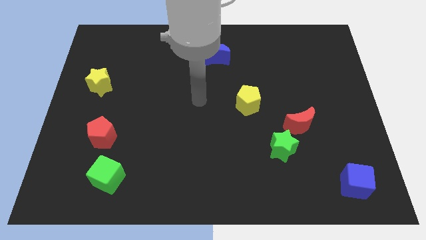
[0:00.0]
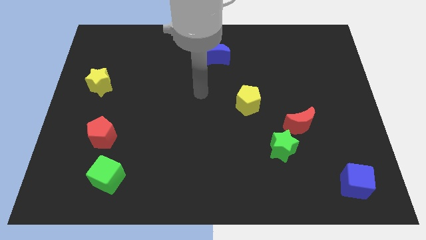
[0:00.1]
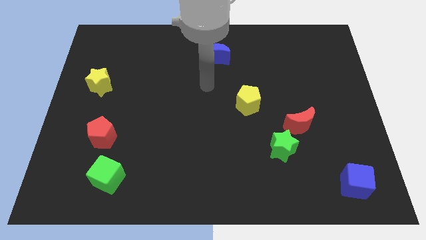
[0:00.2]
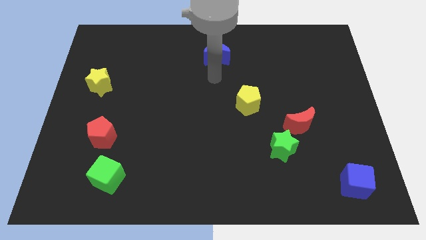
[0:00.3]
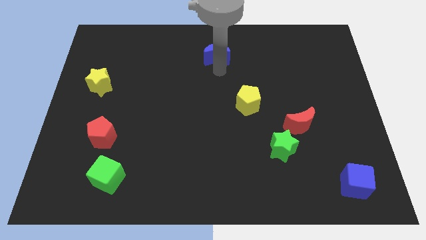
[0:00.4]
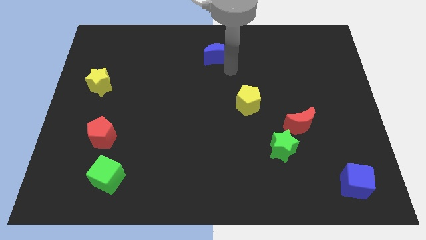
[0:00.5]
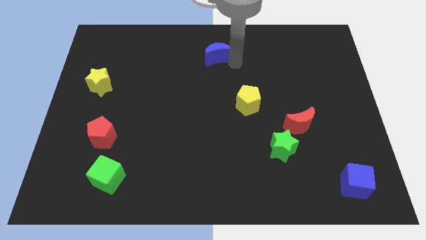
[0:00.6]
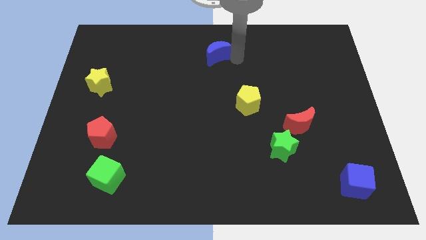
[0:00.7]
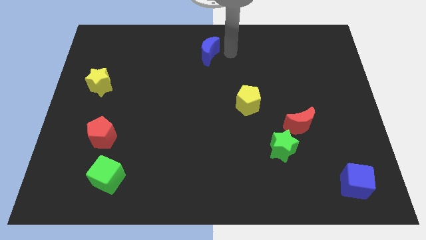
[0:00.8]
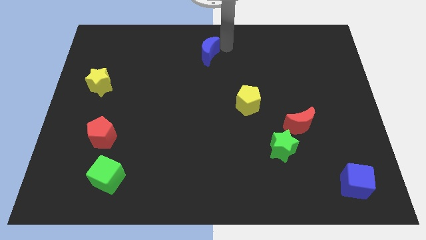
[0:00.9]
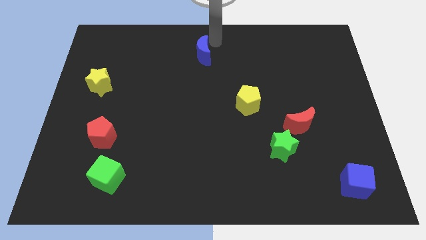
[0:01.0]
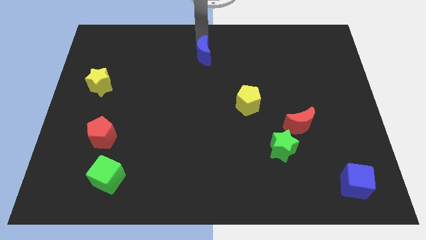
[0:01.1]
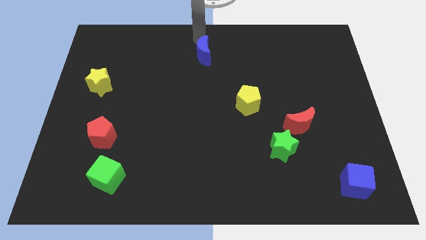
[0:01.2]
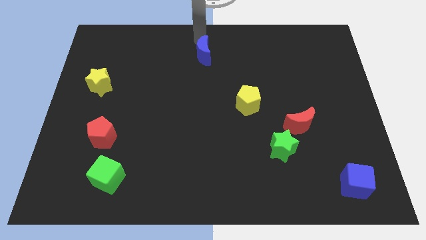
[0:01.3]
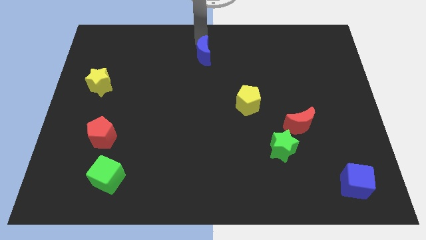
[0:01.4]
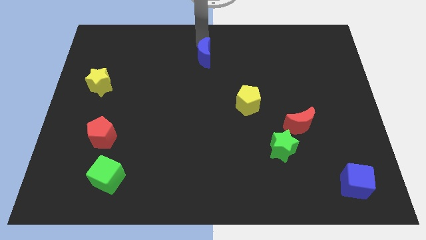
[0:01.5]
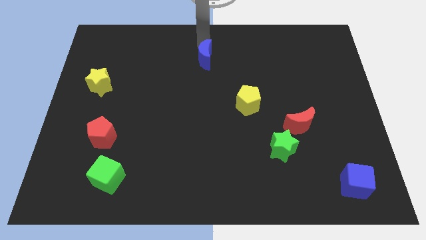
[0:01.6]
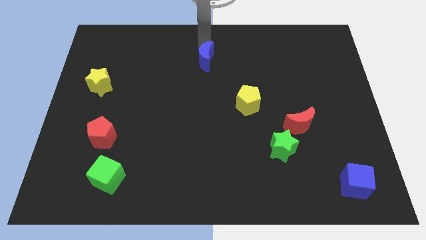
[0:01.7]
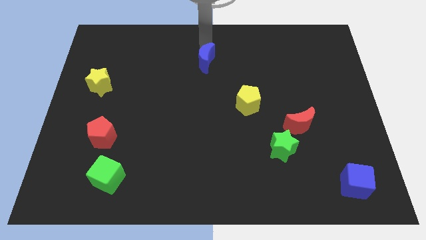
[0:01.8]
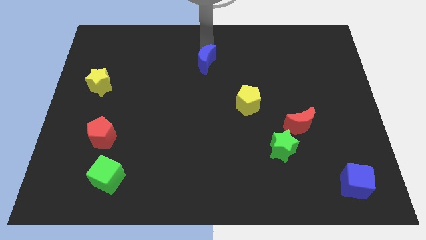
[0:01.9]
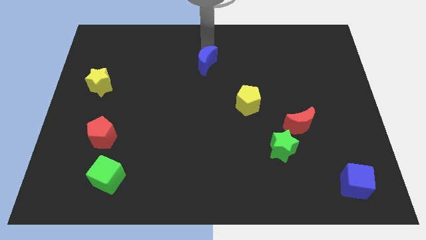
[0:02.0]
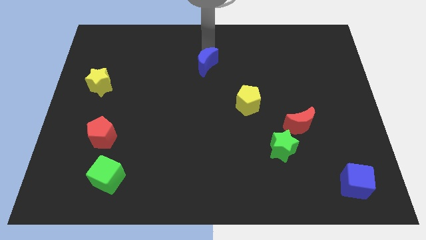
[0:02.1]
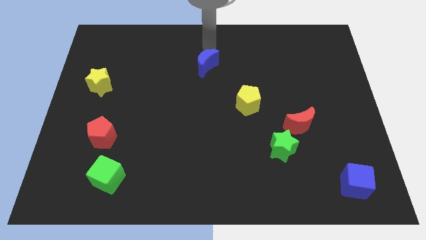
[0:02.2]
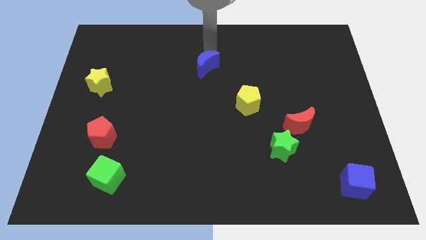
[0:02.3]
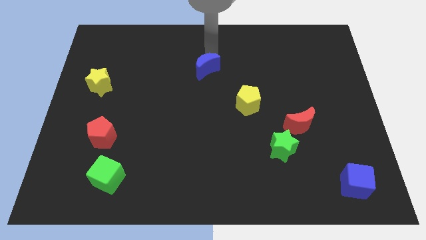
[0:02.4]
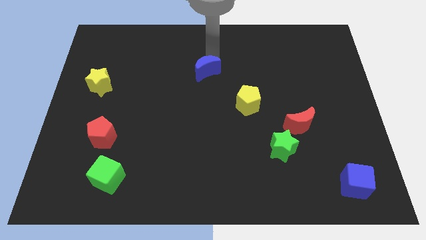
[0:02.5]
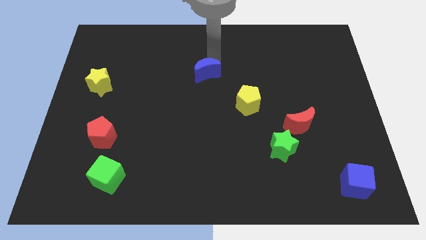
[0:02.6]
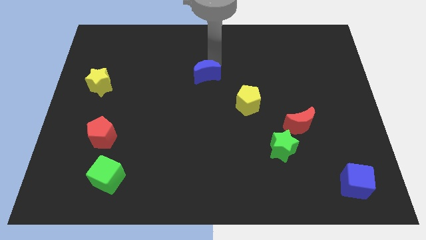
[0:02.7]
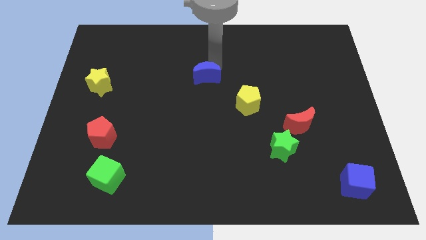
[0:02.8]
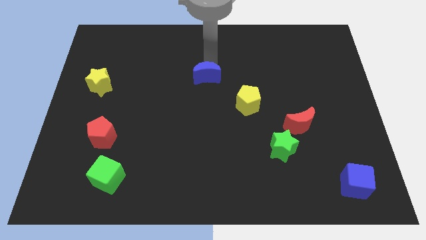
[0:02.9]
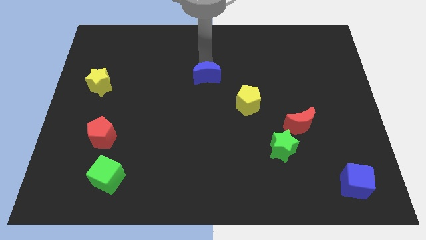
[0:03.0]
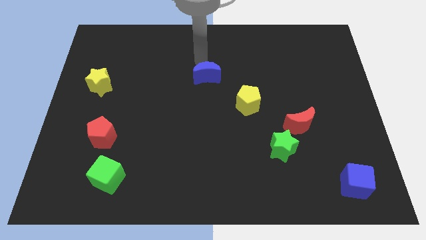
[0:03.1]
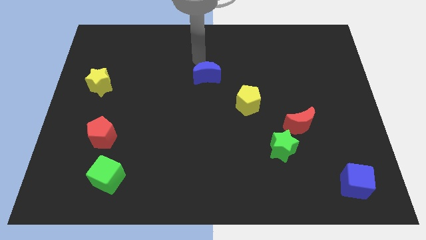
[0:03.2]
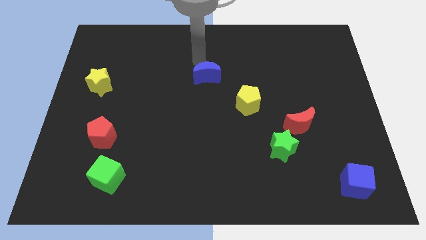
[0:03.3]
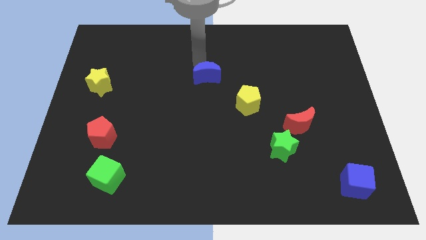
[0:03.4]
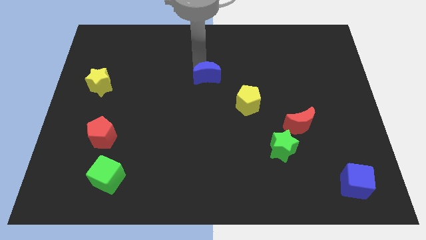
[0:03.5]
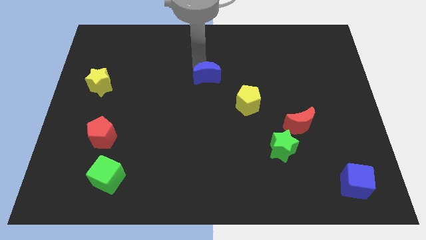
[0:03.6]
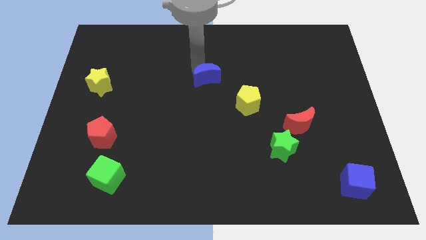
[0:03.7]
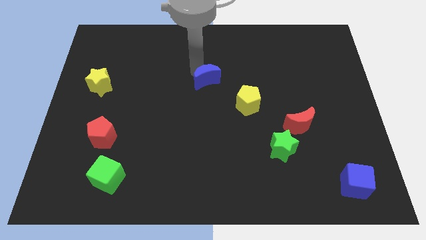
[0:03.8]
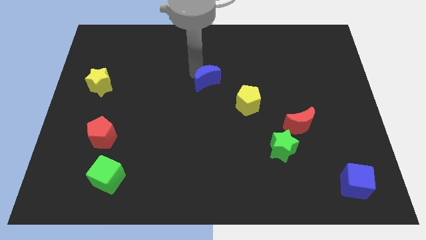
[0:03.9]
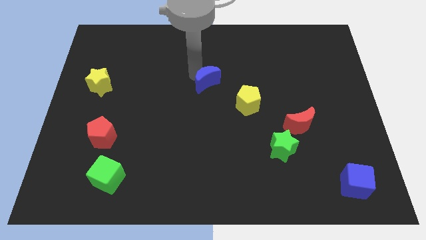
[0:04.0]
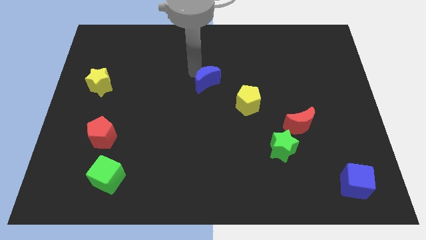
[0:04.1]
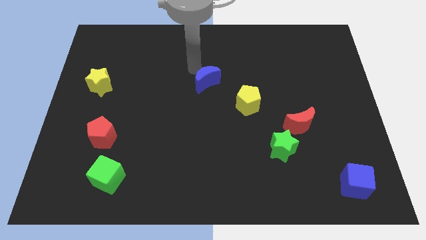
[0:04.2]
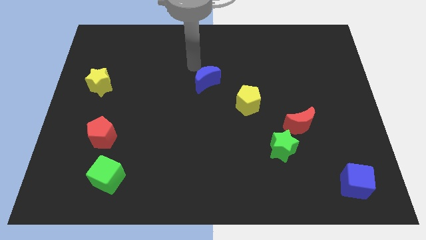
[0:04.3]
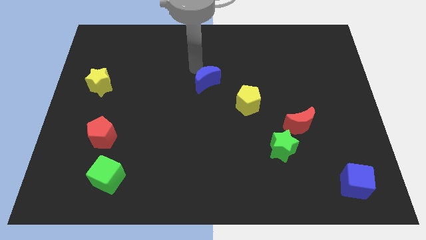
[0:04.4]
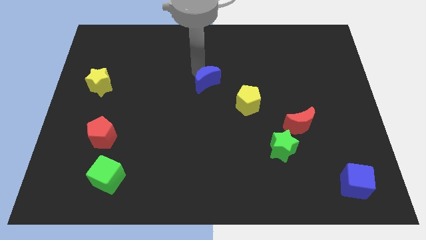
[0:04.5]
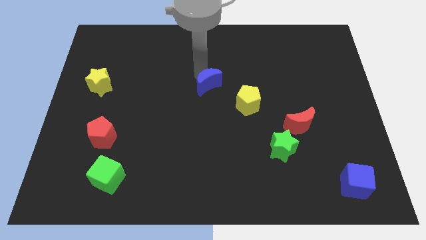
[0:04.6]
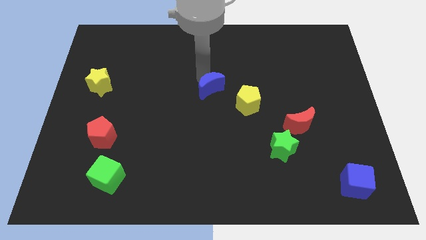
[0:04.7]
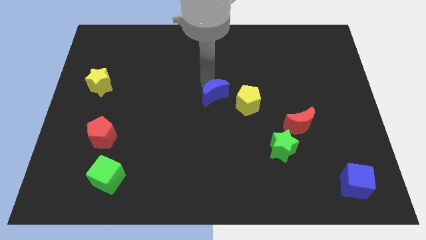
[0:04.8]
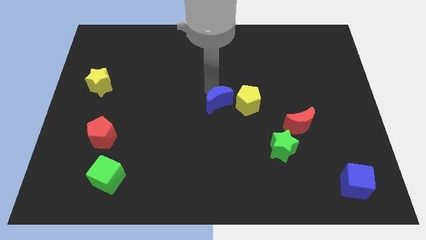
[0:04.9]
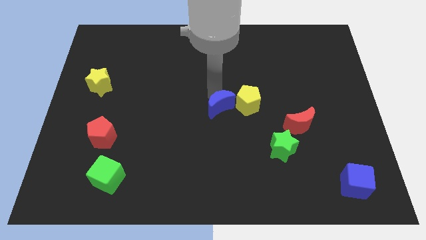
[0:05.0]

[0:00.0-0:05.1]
slide the blue moon to the bottom left side of the yellow pentagon

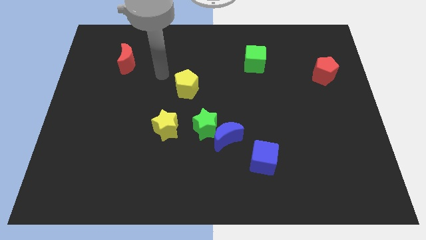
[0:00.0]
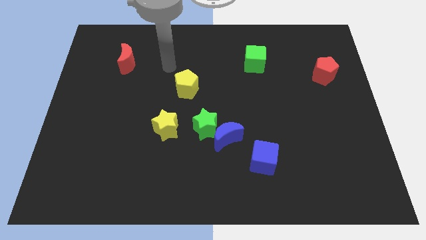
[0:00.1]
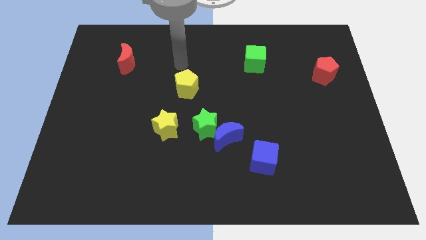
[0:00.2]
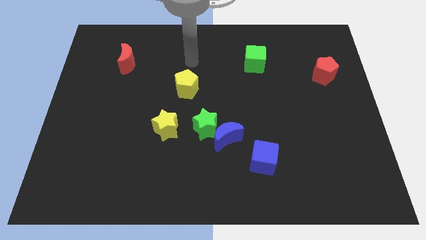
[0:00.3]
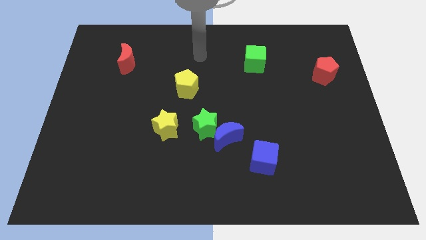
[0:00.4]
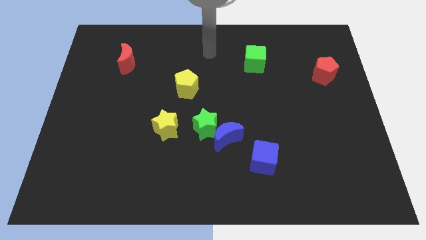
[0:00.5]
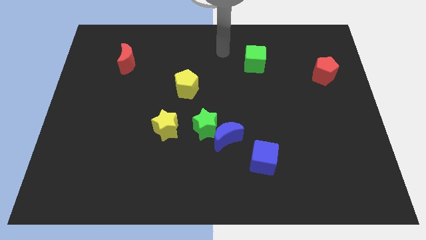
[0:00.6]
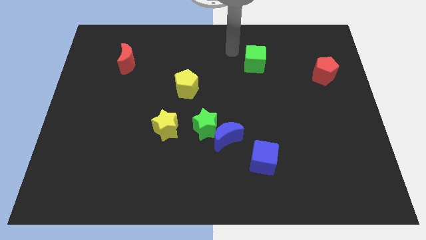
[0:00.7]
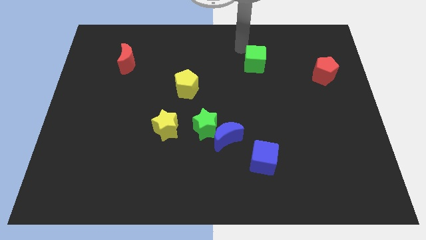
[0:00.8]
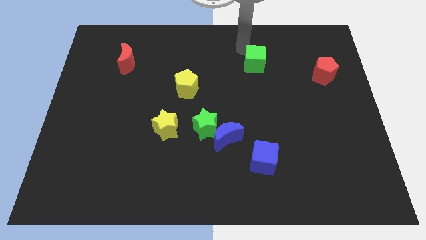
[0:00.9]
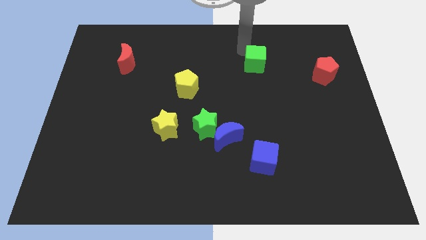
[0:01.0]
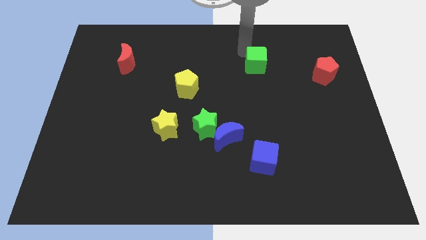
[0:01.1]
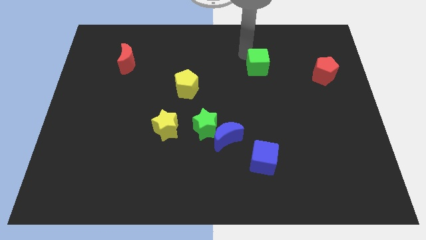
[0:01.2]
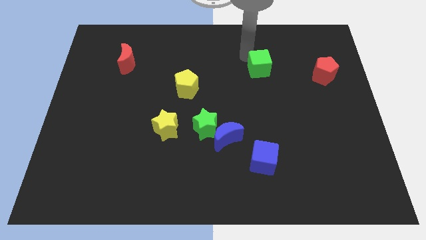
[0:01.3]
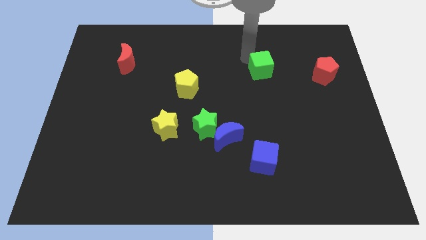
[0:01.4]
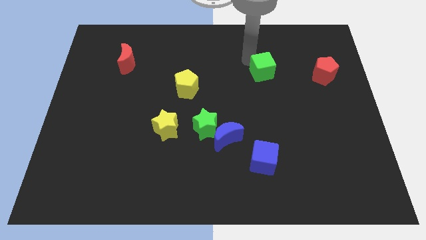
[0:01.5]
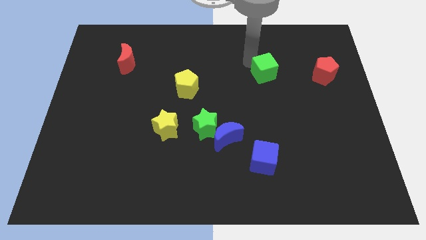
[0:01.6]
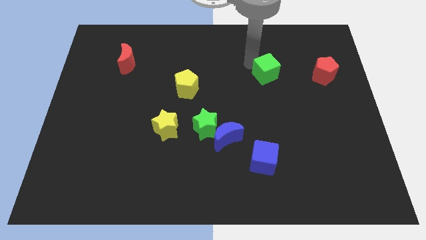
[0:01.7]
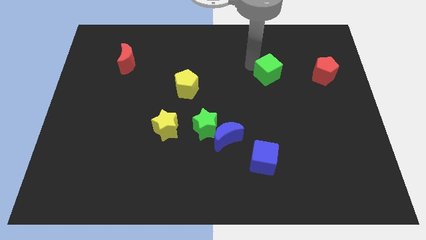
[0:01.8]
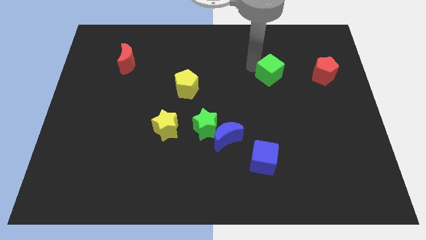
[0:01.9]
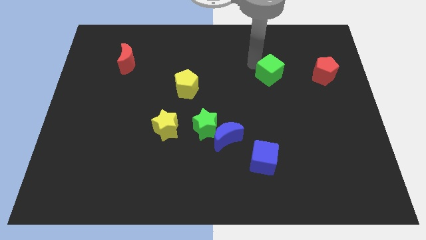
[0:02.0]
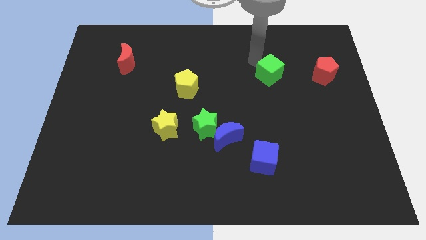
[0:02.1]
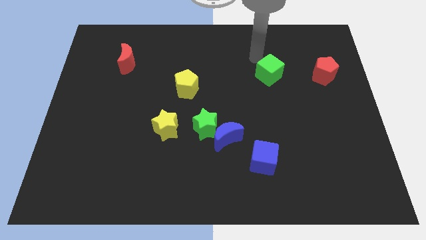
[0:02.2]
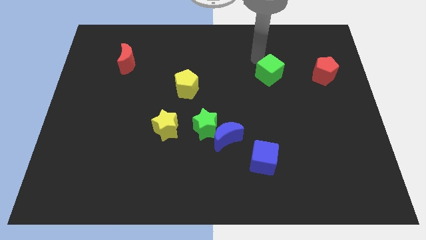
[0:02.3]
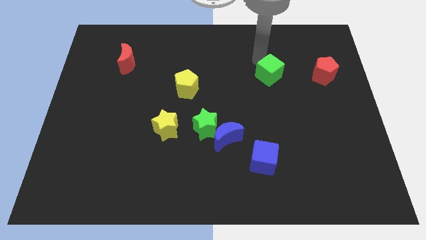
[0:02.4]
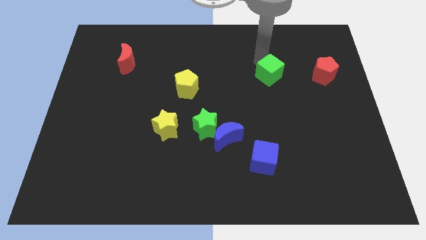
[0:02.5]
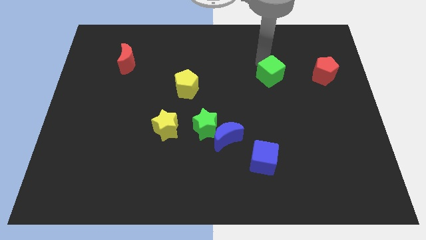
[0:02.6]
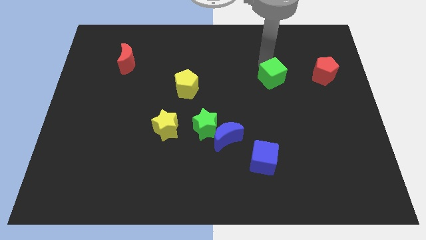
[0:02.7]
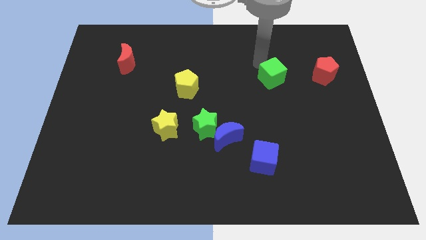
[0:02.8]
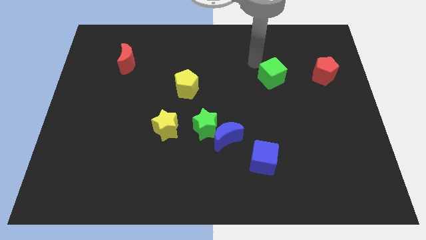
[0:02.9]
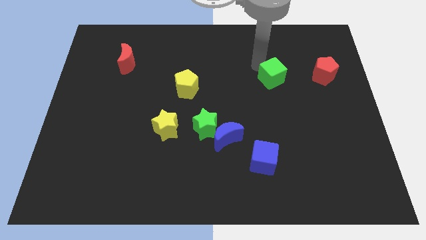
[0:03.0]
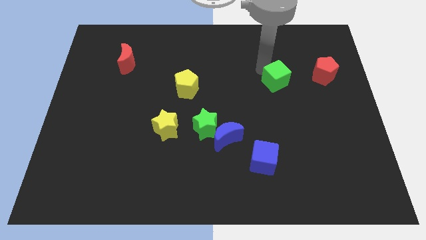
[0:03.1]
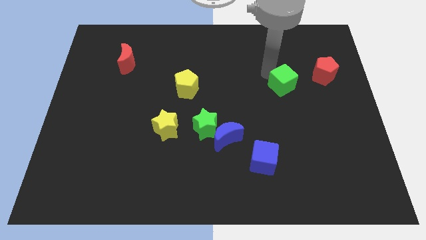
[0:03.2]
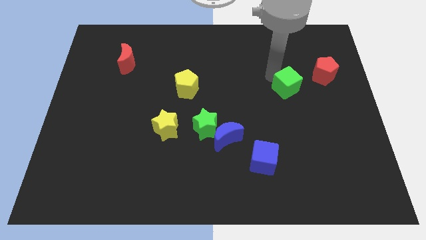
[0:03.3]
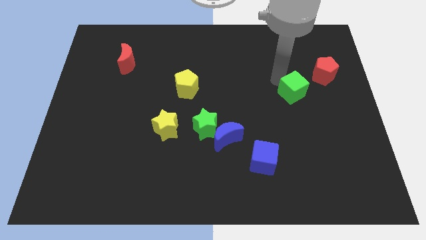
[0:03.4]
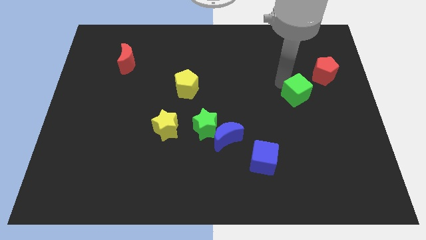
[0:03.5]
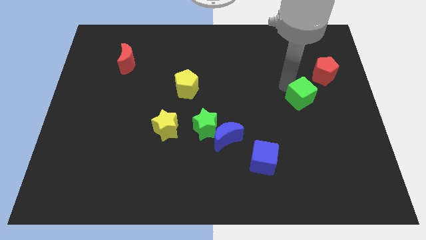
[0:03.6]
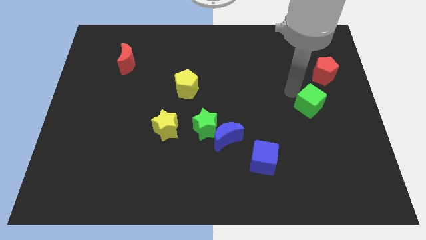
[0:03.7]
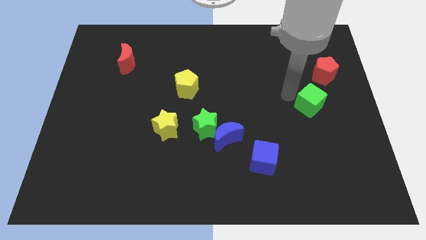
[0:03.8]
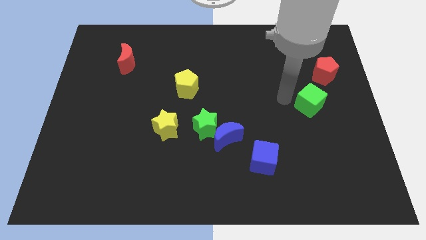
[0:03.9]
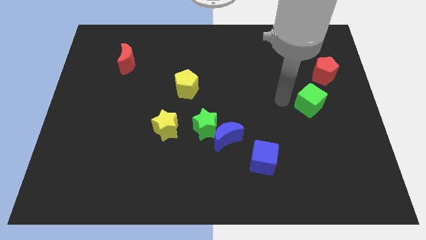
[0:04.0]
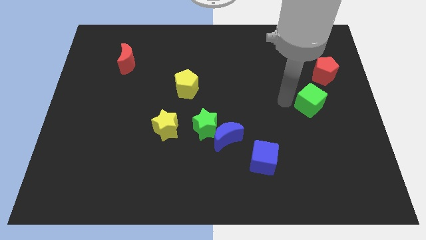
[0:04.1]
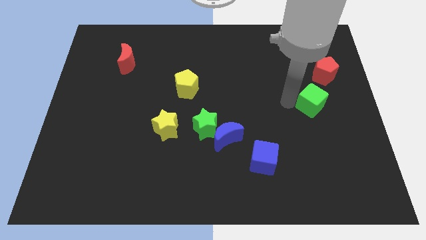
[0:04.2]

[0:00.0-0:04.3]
move the green cube to the bottom of the red pentagon
